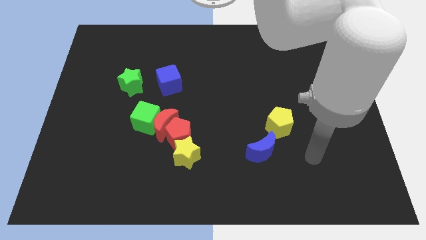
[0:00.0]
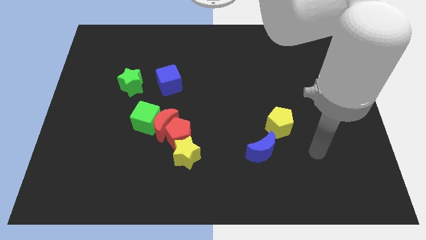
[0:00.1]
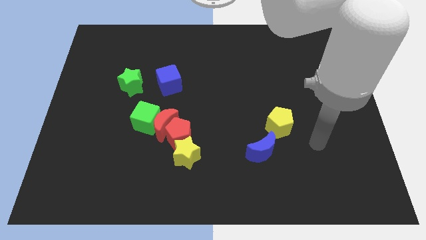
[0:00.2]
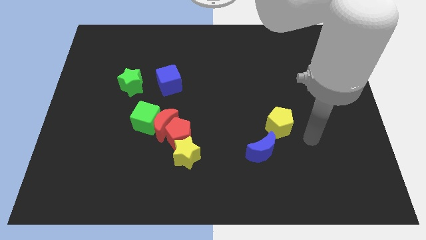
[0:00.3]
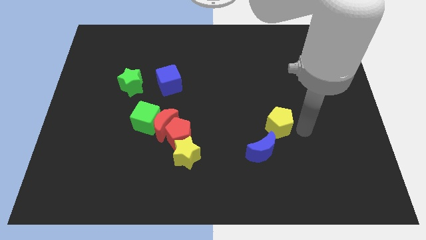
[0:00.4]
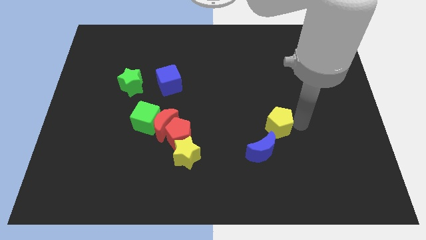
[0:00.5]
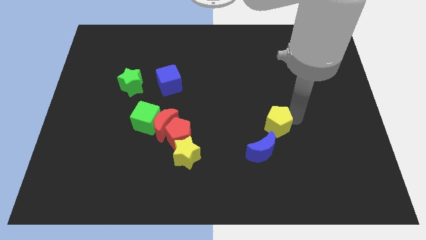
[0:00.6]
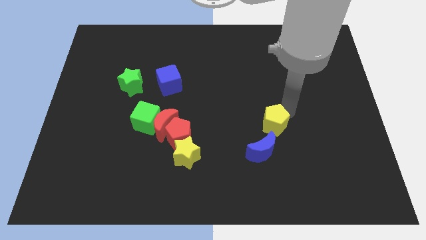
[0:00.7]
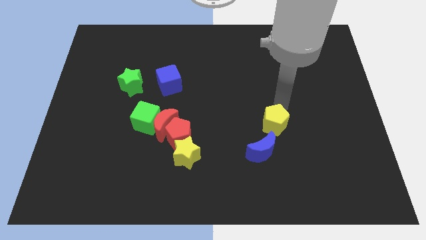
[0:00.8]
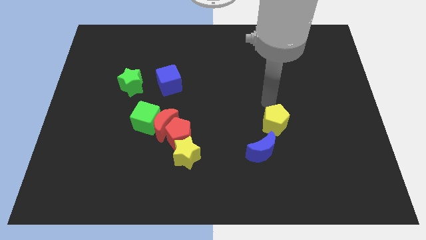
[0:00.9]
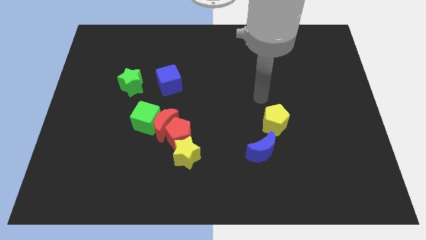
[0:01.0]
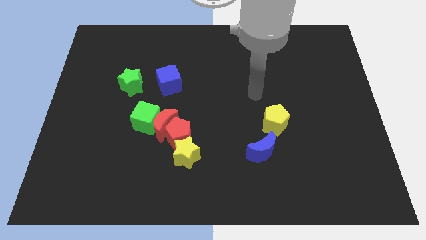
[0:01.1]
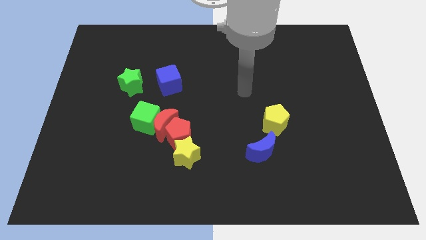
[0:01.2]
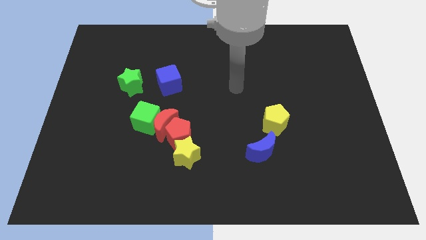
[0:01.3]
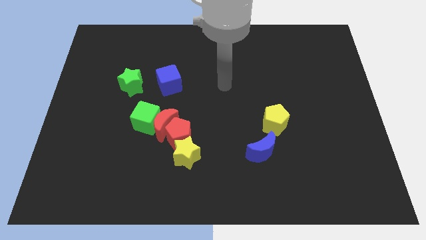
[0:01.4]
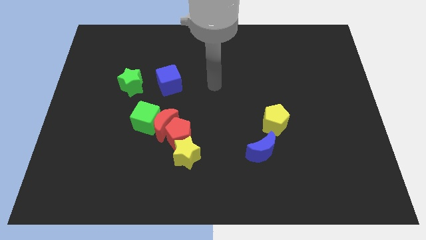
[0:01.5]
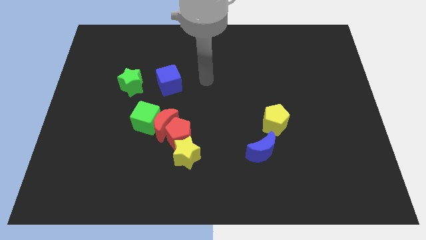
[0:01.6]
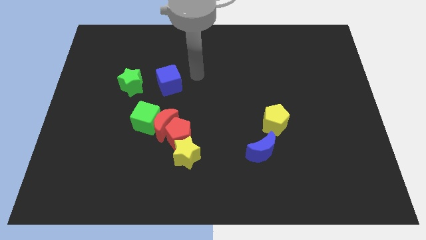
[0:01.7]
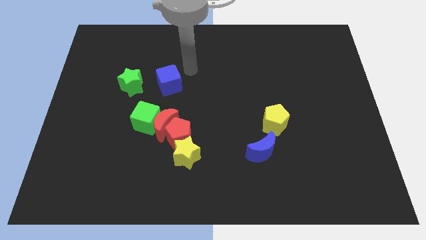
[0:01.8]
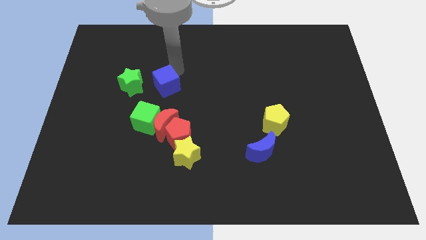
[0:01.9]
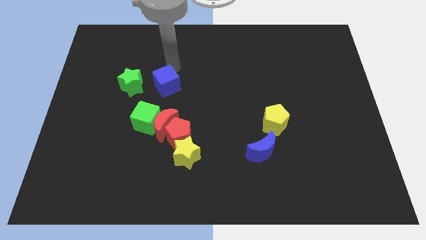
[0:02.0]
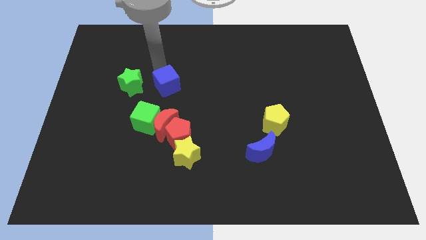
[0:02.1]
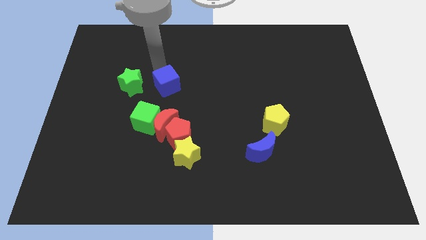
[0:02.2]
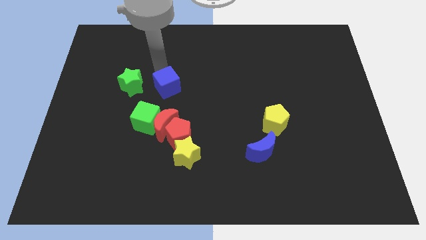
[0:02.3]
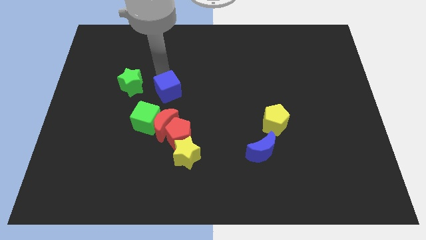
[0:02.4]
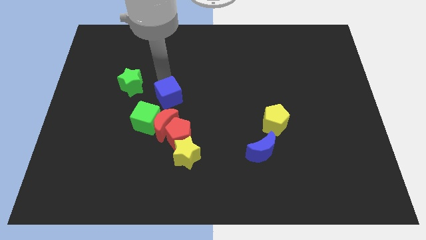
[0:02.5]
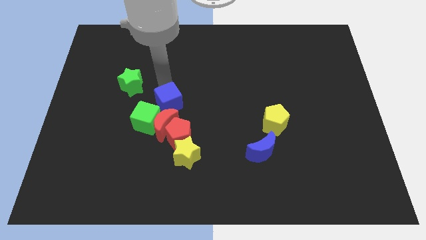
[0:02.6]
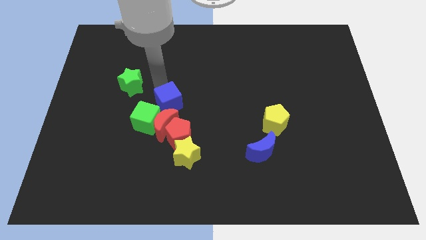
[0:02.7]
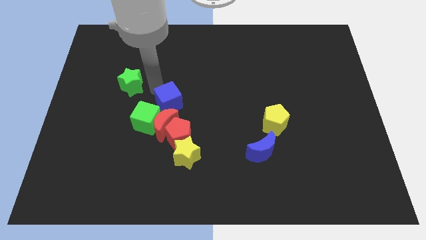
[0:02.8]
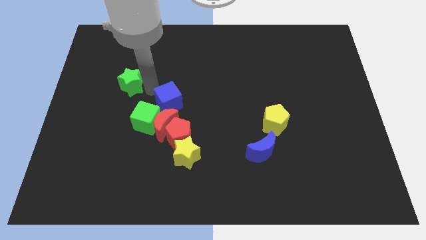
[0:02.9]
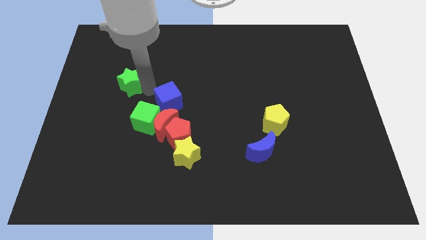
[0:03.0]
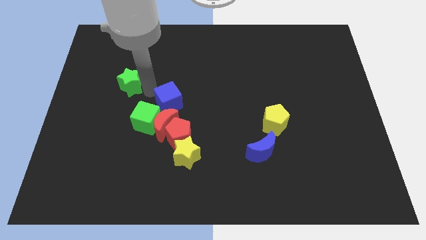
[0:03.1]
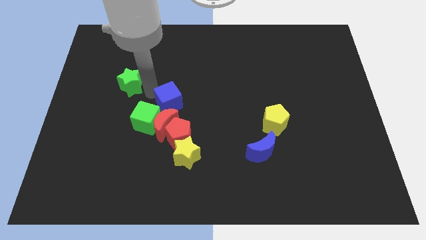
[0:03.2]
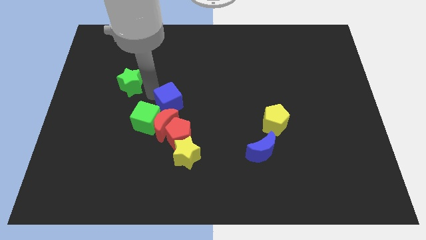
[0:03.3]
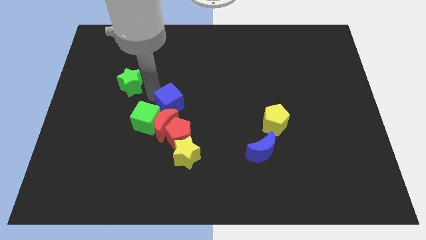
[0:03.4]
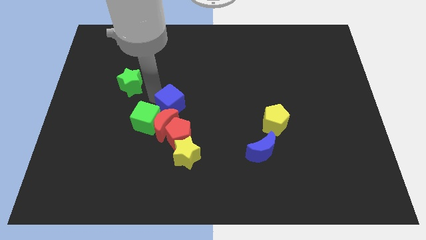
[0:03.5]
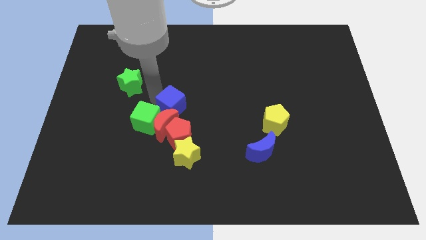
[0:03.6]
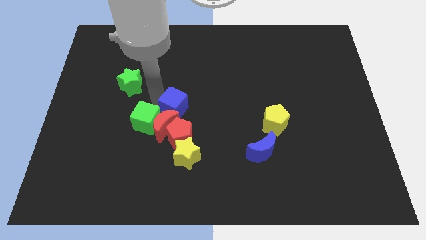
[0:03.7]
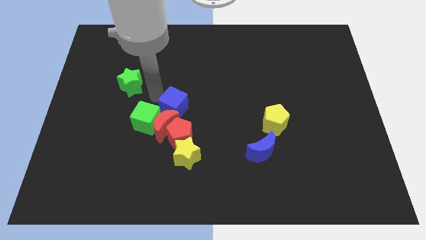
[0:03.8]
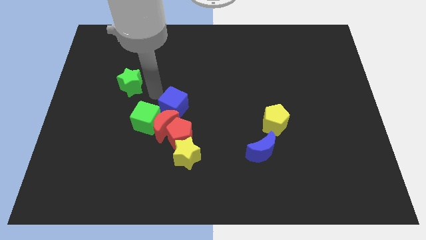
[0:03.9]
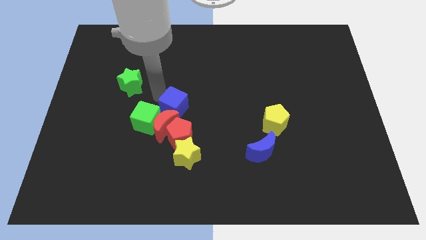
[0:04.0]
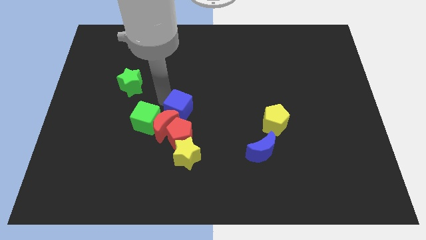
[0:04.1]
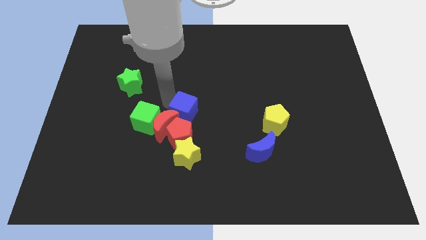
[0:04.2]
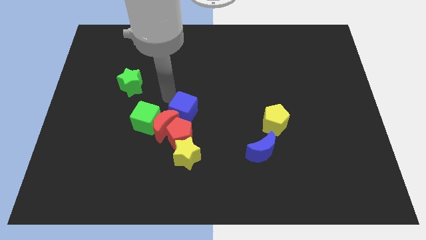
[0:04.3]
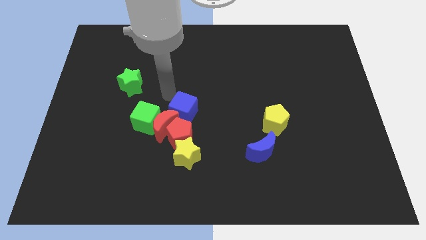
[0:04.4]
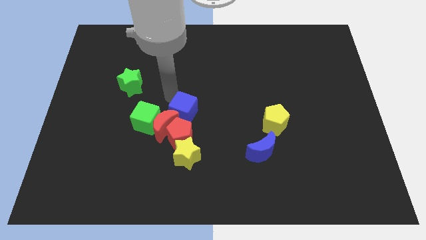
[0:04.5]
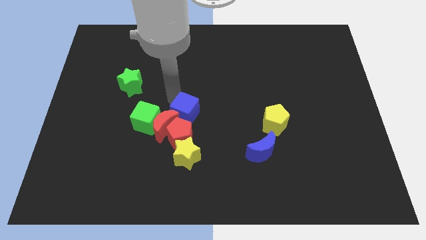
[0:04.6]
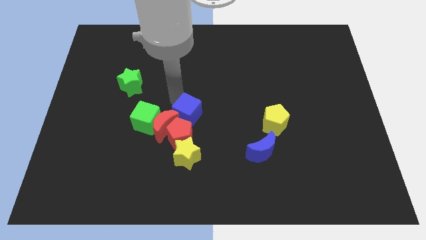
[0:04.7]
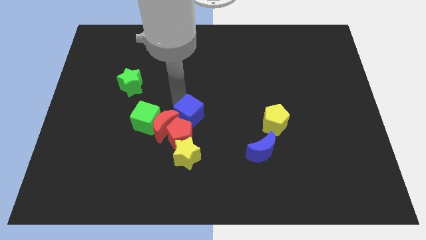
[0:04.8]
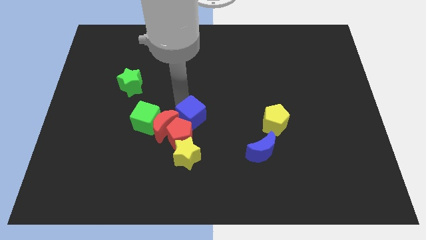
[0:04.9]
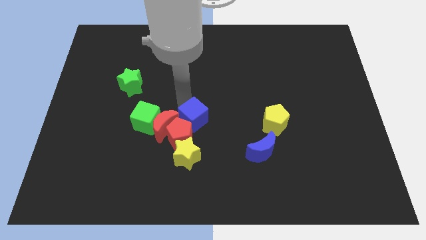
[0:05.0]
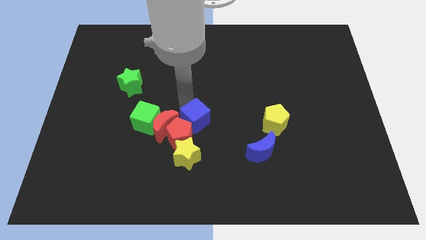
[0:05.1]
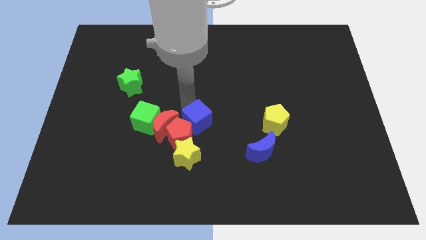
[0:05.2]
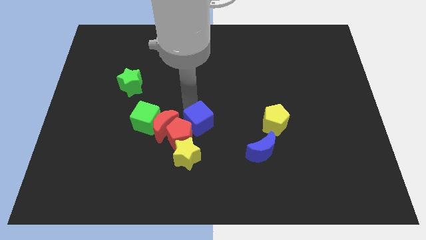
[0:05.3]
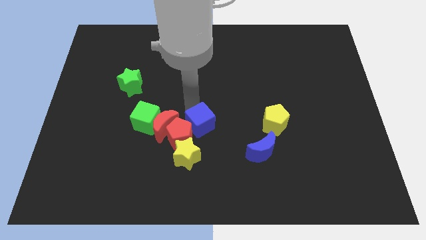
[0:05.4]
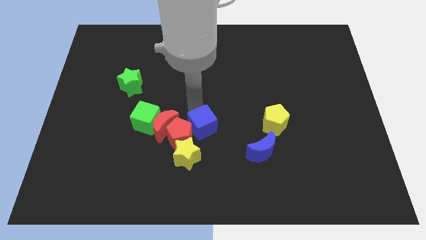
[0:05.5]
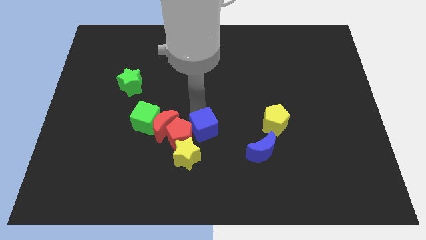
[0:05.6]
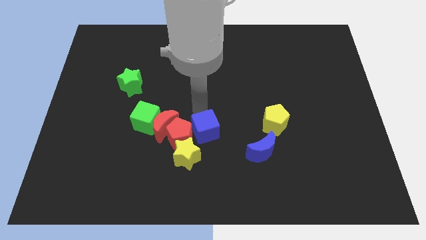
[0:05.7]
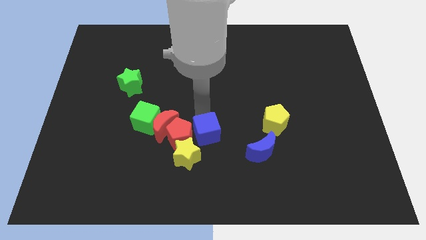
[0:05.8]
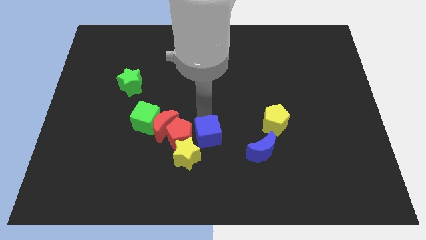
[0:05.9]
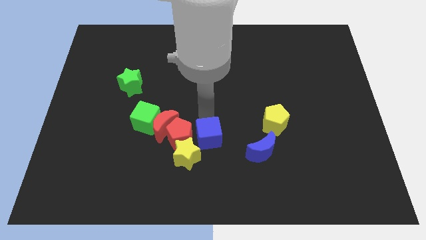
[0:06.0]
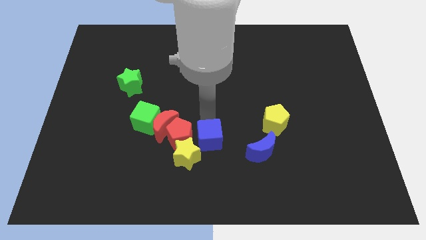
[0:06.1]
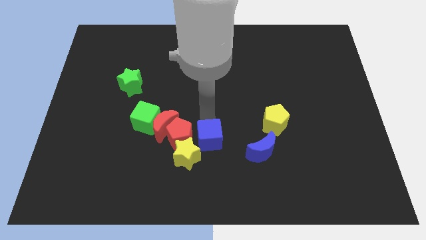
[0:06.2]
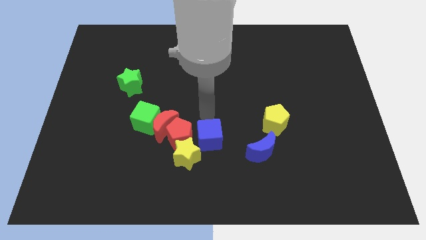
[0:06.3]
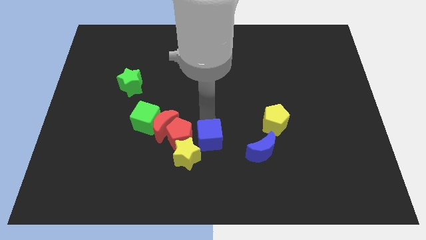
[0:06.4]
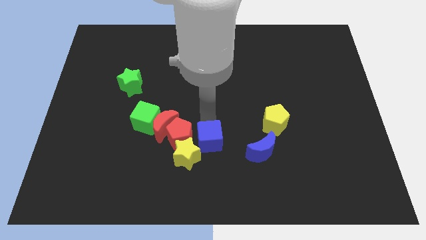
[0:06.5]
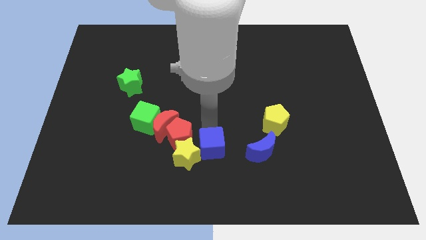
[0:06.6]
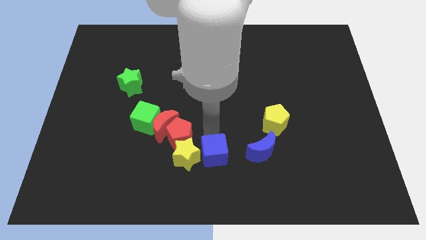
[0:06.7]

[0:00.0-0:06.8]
slide the blue cube to the bottom
